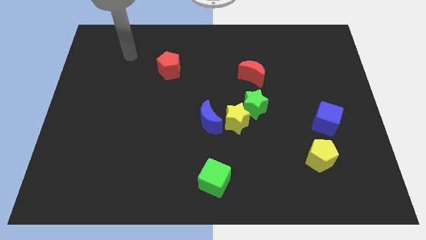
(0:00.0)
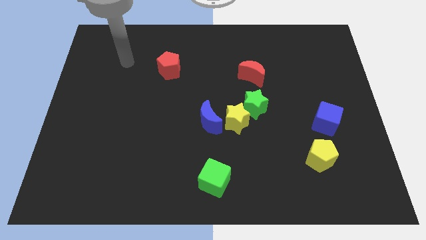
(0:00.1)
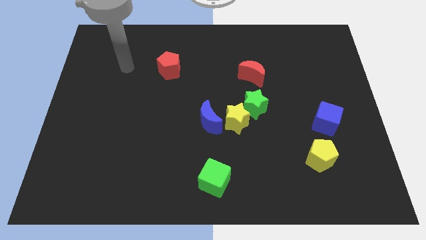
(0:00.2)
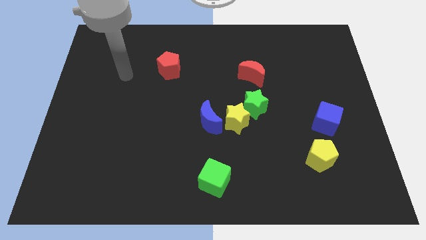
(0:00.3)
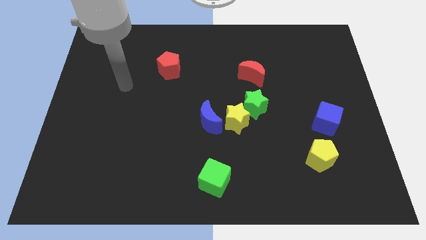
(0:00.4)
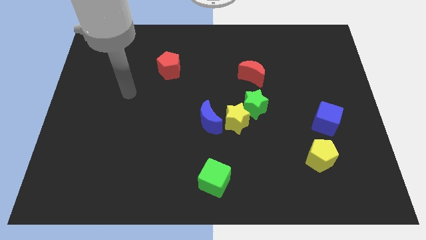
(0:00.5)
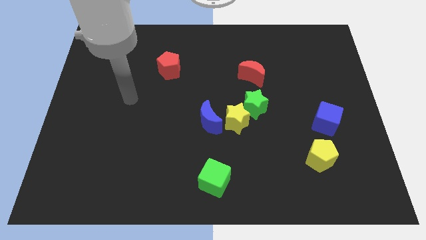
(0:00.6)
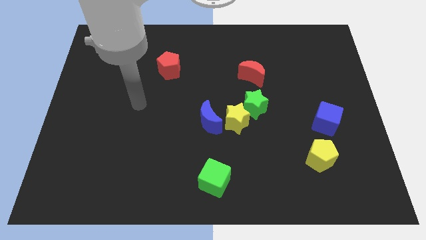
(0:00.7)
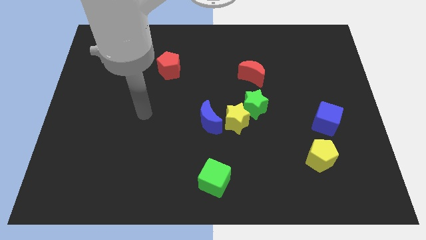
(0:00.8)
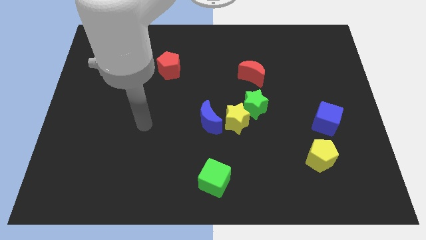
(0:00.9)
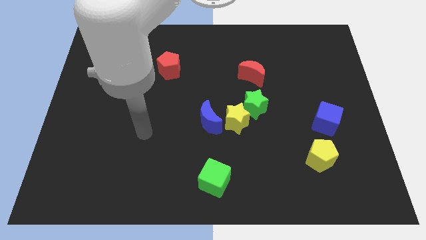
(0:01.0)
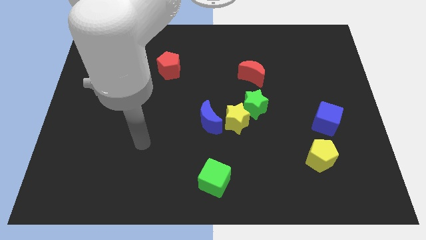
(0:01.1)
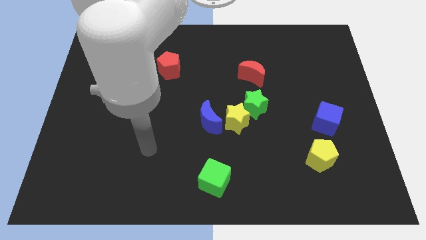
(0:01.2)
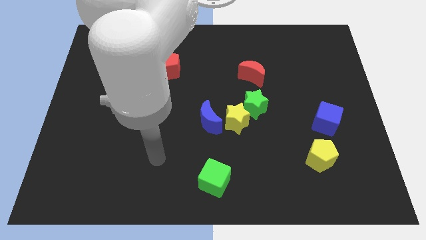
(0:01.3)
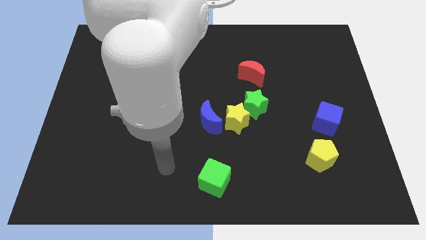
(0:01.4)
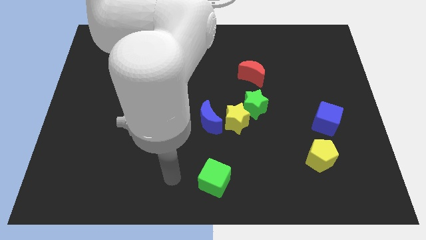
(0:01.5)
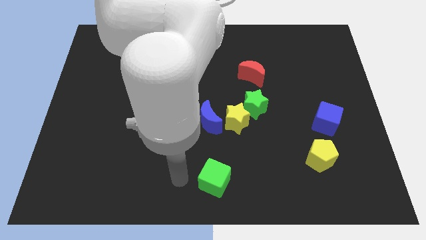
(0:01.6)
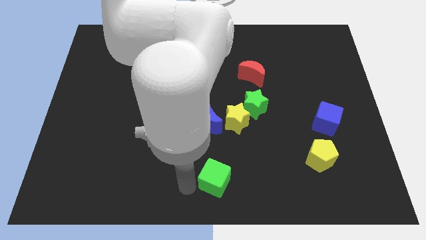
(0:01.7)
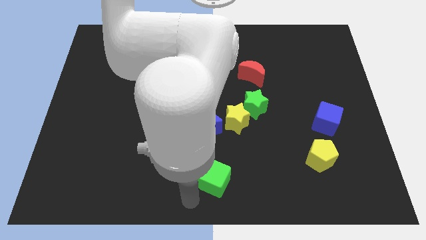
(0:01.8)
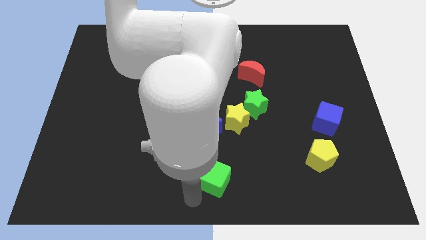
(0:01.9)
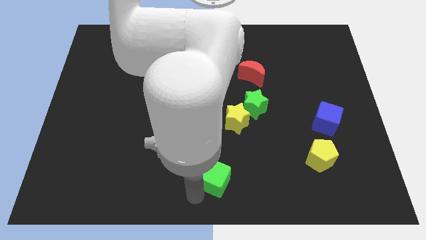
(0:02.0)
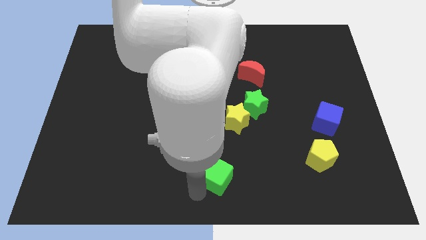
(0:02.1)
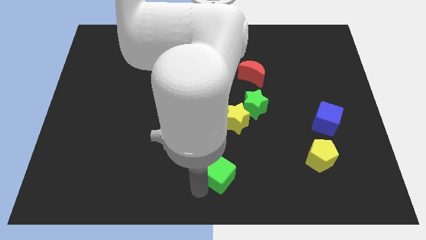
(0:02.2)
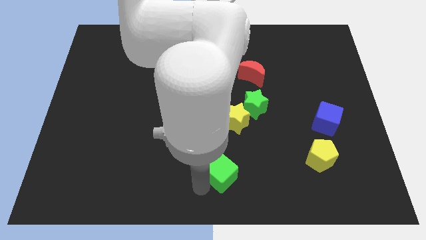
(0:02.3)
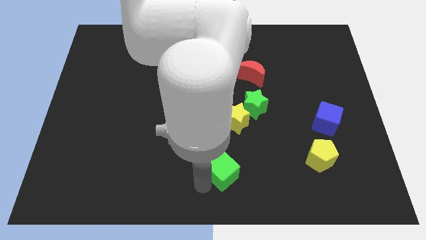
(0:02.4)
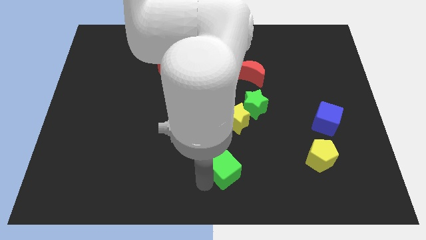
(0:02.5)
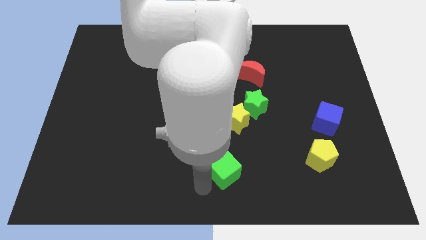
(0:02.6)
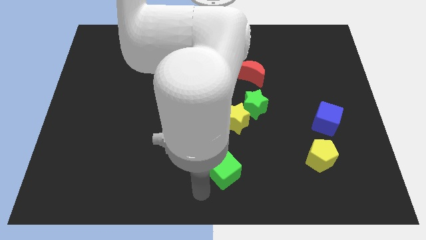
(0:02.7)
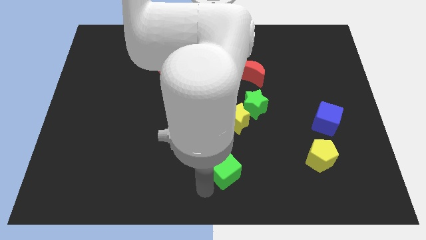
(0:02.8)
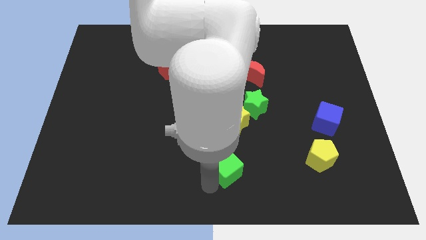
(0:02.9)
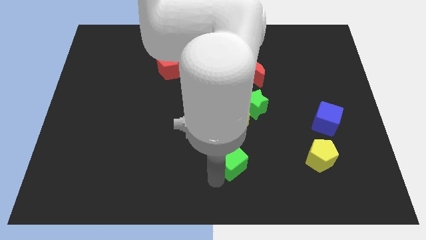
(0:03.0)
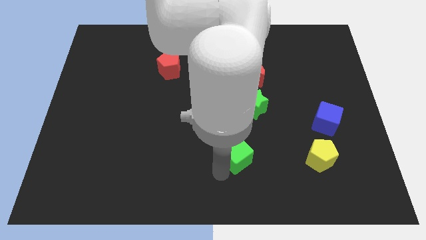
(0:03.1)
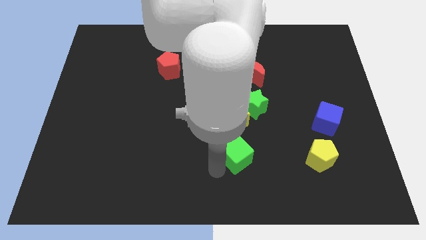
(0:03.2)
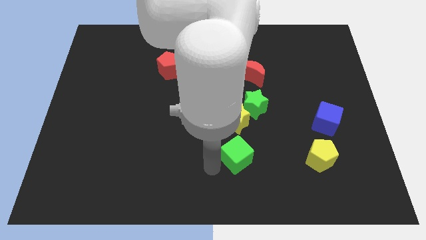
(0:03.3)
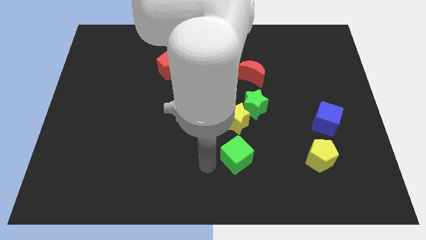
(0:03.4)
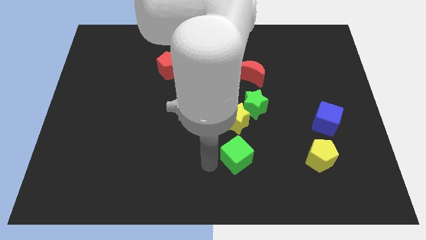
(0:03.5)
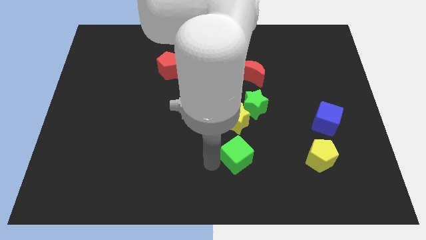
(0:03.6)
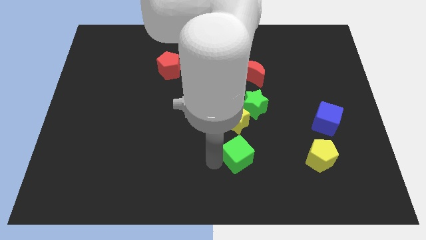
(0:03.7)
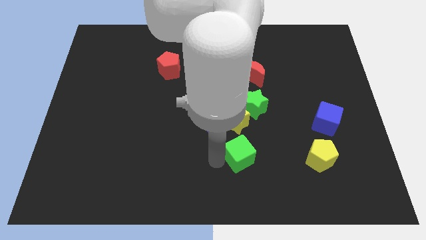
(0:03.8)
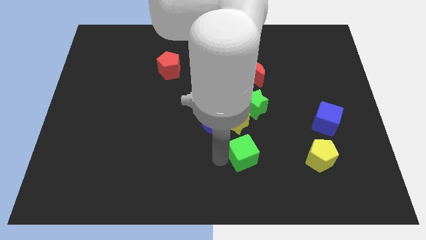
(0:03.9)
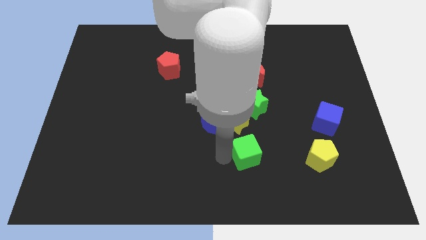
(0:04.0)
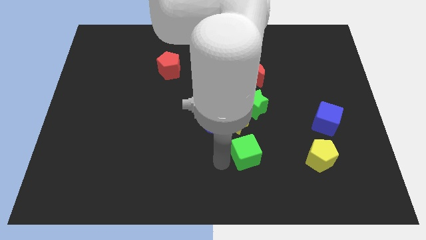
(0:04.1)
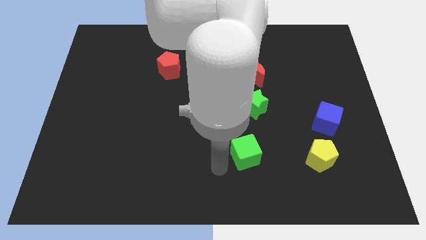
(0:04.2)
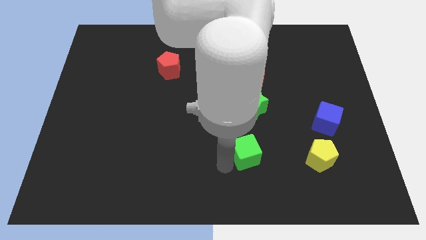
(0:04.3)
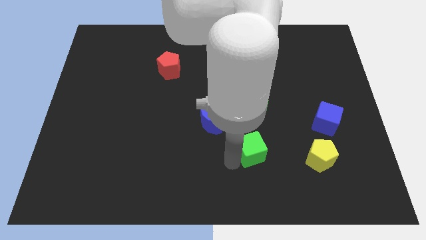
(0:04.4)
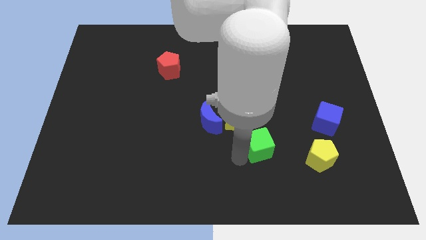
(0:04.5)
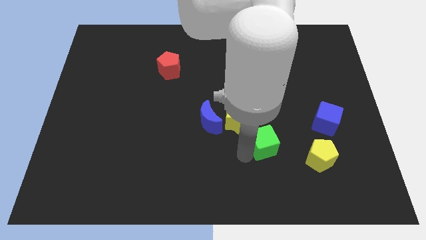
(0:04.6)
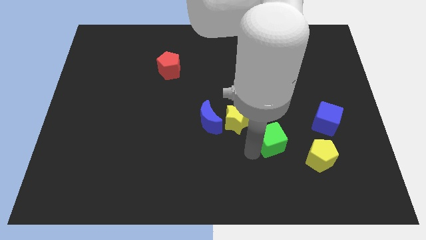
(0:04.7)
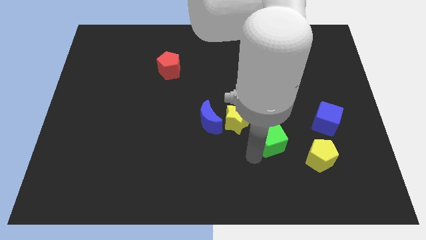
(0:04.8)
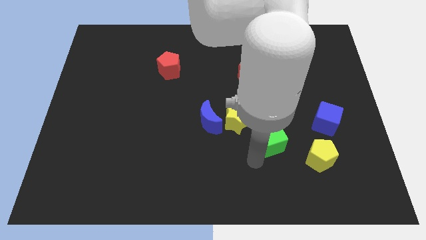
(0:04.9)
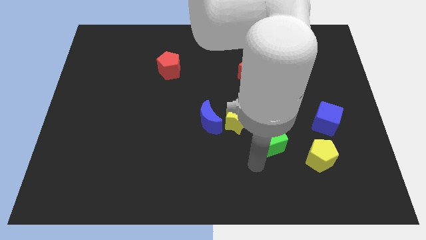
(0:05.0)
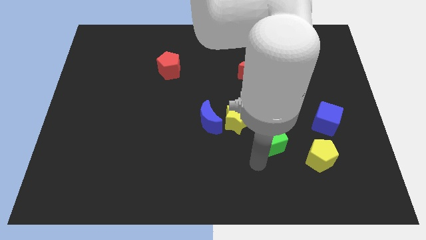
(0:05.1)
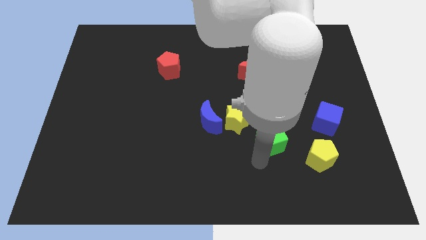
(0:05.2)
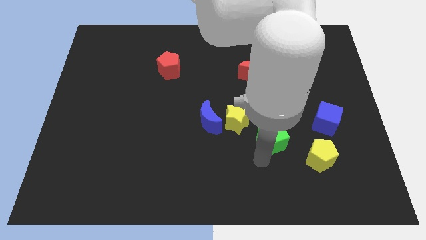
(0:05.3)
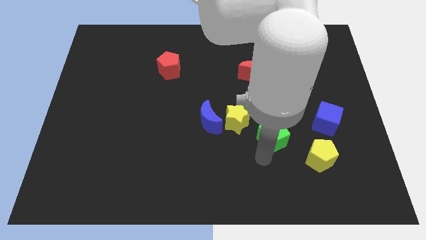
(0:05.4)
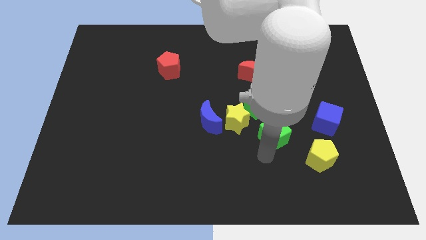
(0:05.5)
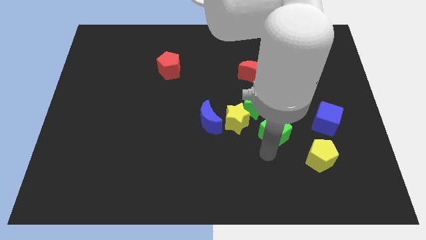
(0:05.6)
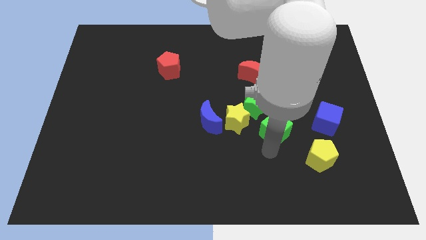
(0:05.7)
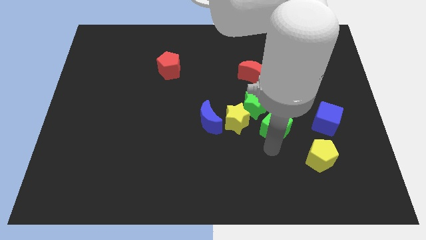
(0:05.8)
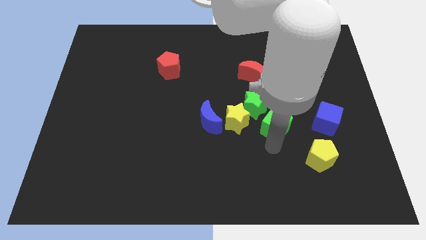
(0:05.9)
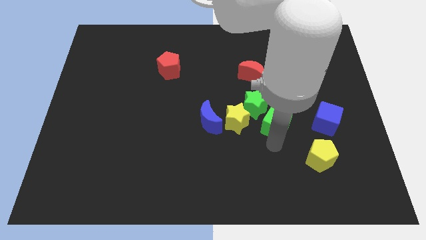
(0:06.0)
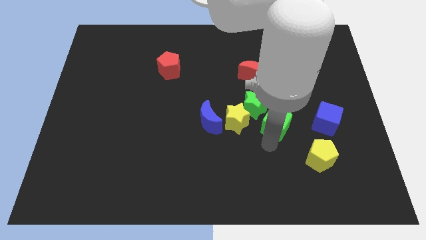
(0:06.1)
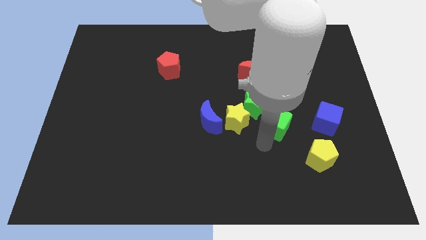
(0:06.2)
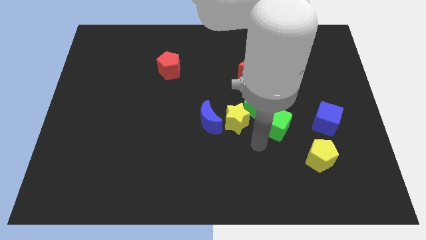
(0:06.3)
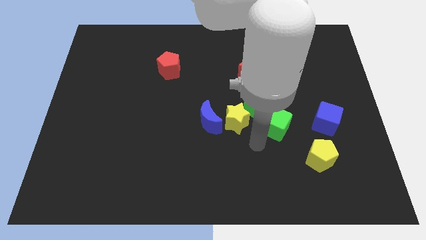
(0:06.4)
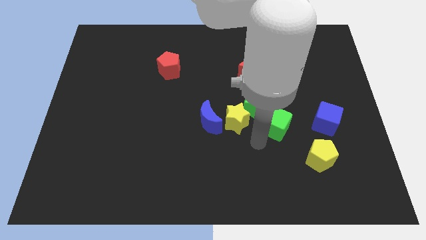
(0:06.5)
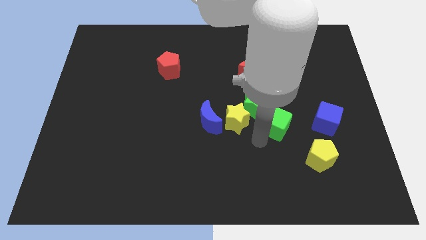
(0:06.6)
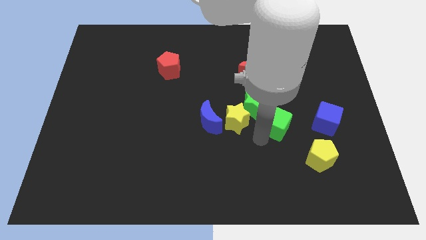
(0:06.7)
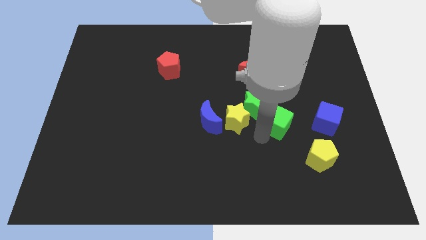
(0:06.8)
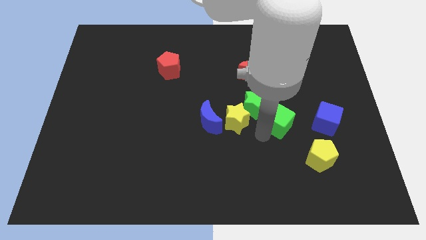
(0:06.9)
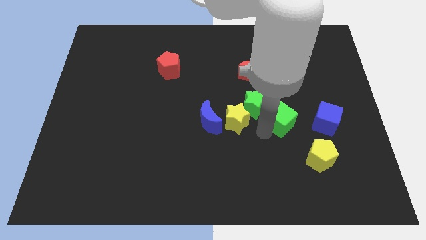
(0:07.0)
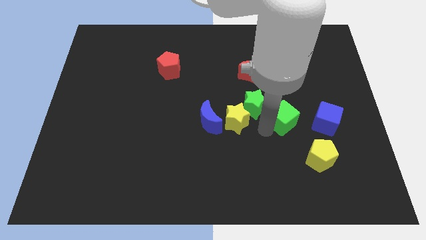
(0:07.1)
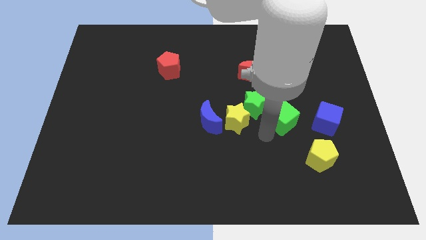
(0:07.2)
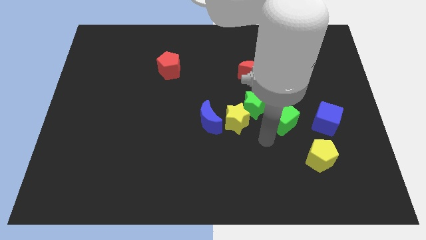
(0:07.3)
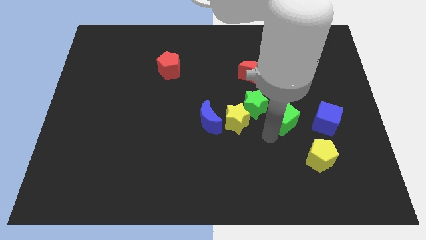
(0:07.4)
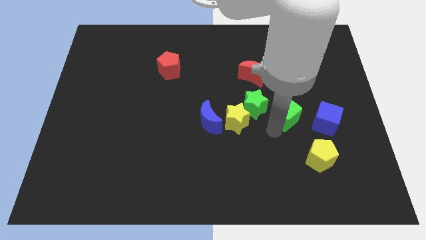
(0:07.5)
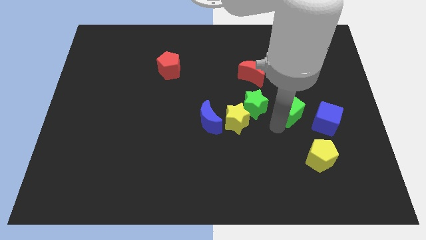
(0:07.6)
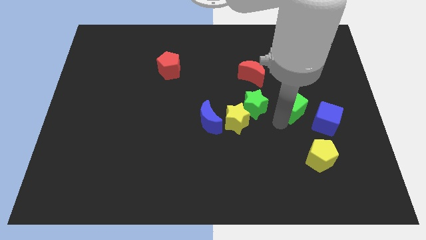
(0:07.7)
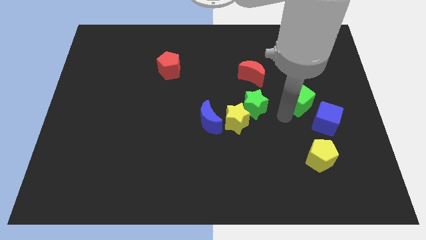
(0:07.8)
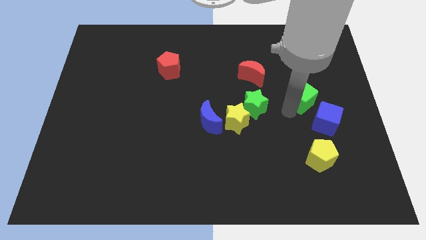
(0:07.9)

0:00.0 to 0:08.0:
slide the green cube above the blue cube
